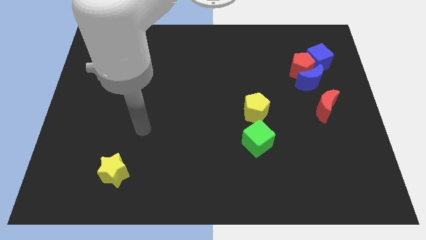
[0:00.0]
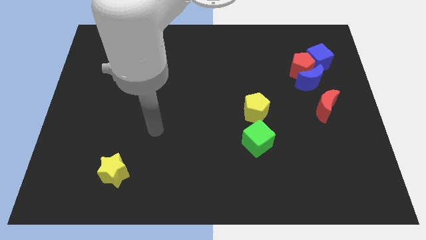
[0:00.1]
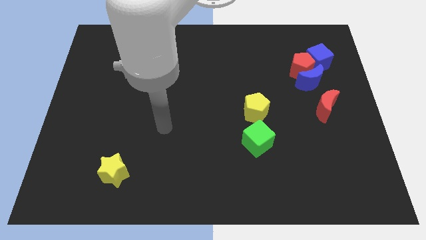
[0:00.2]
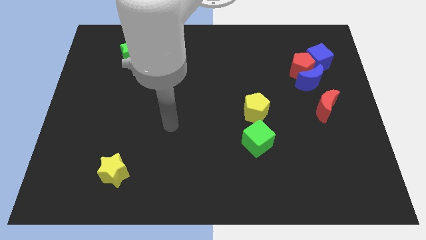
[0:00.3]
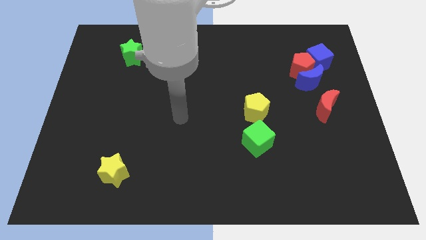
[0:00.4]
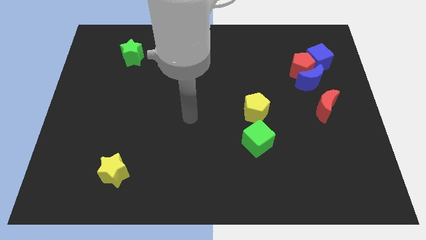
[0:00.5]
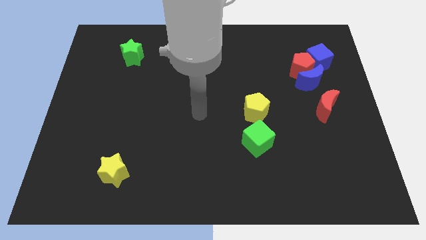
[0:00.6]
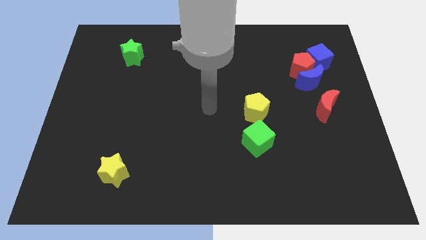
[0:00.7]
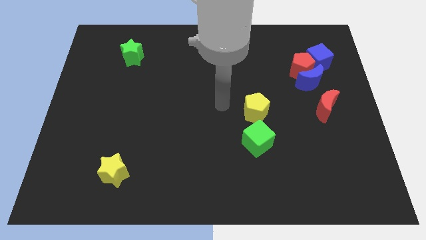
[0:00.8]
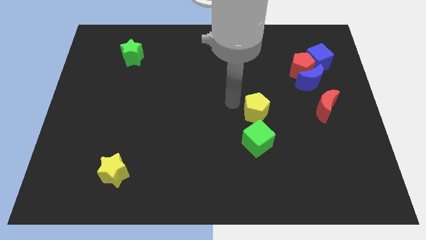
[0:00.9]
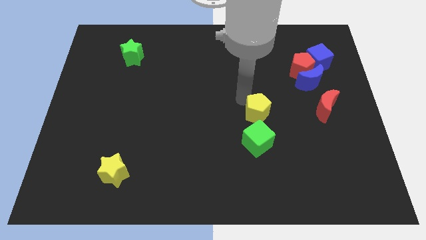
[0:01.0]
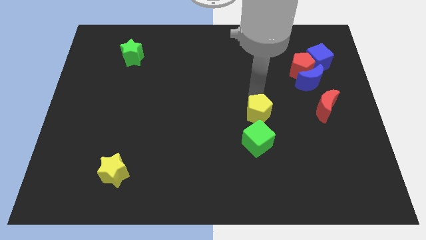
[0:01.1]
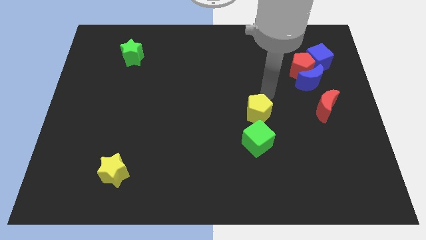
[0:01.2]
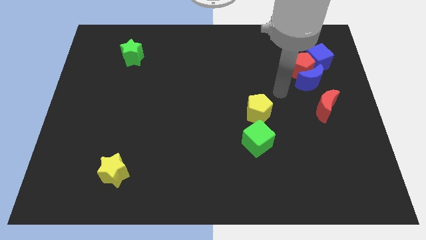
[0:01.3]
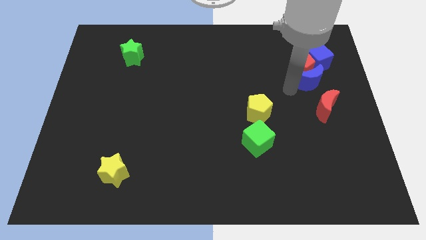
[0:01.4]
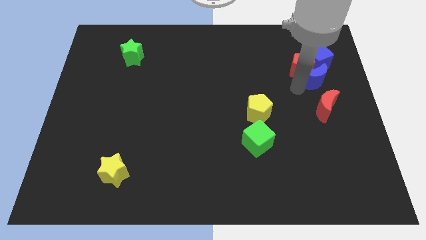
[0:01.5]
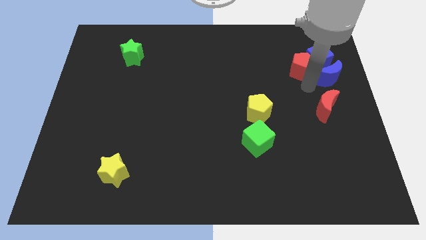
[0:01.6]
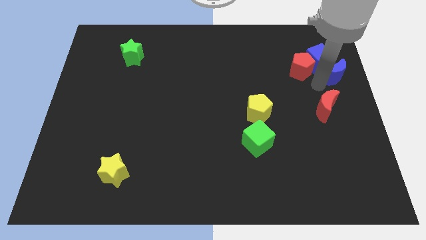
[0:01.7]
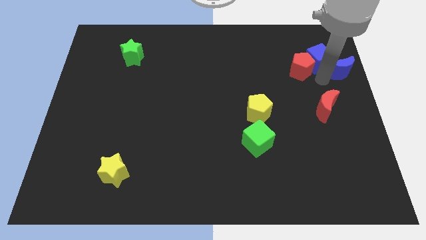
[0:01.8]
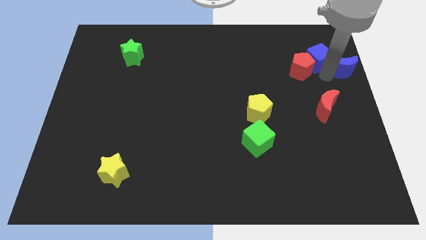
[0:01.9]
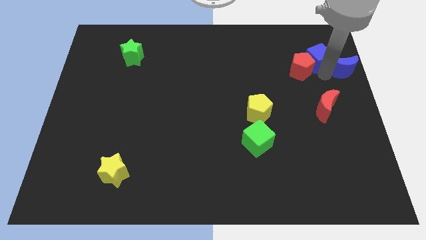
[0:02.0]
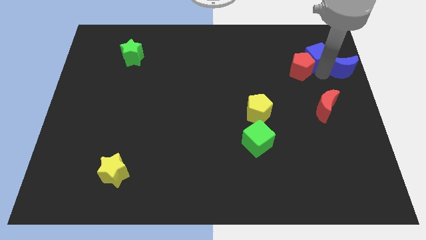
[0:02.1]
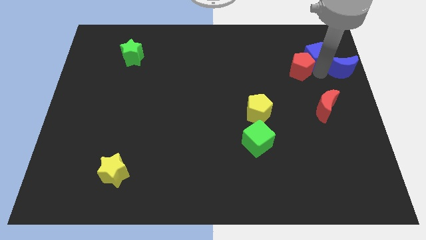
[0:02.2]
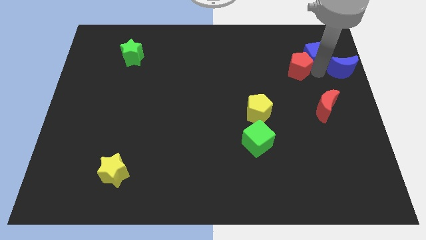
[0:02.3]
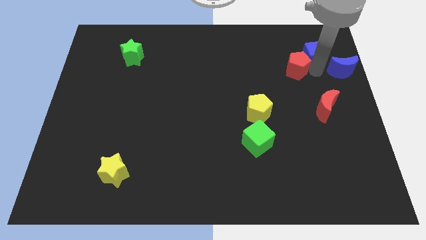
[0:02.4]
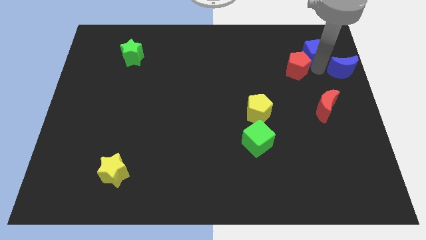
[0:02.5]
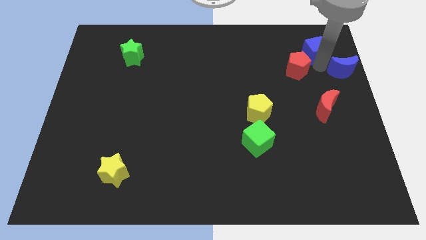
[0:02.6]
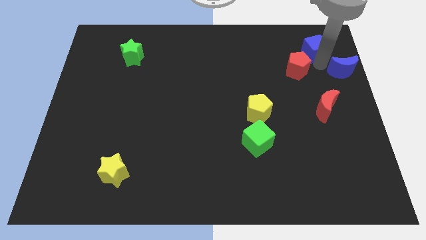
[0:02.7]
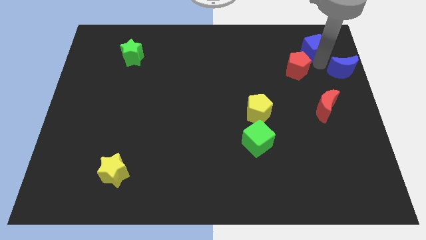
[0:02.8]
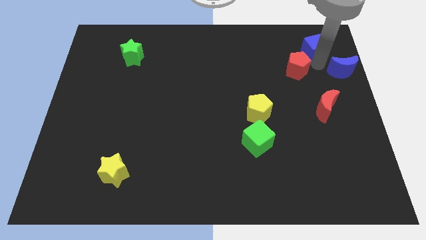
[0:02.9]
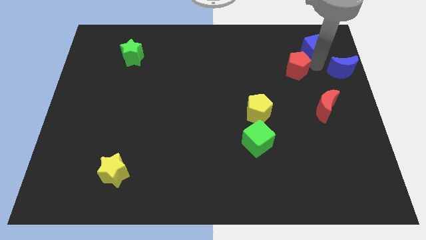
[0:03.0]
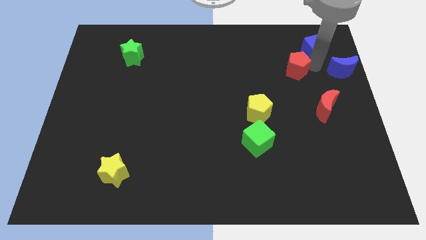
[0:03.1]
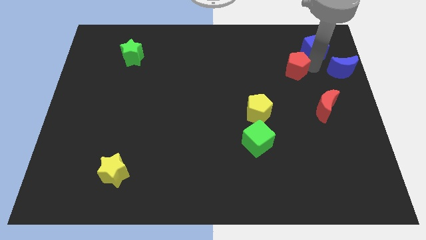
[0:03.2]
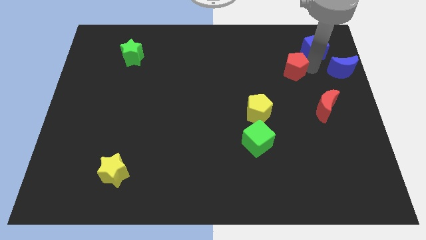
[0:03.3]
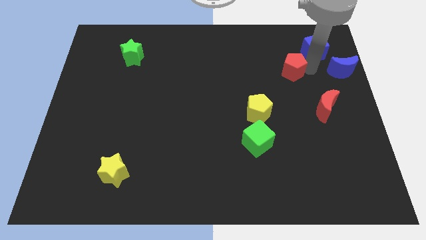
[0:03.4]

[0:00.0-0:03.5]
move the red pentagon away from the blue moon and blue cube

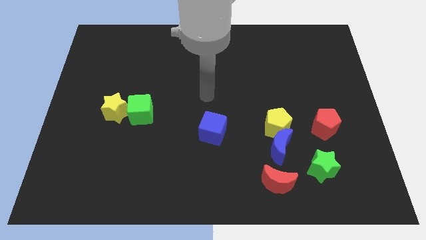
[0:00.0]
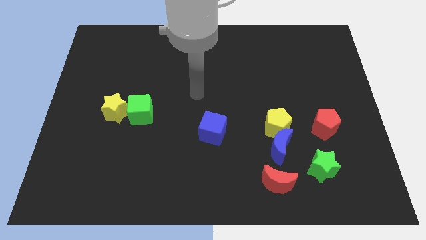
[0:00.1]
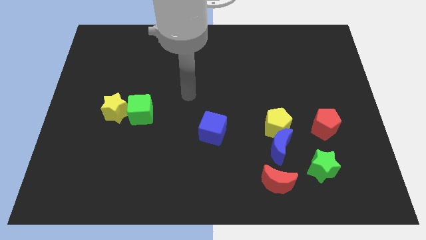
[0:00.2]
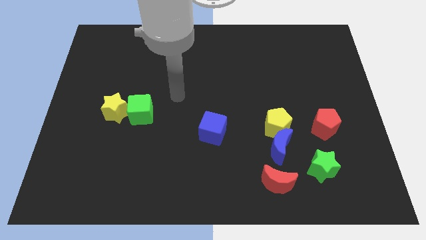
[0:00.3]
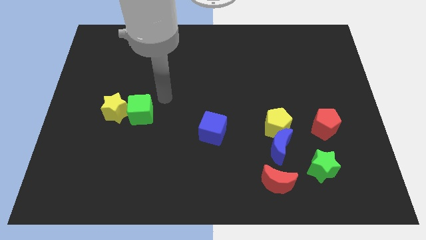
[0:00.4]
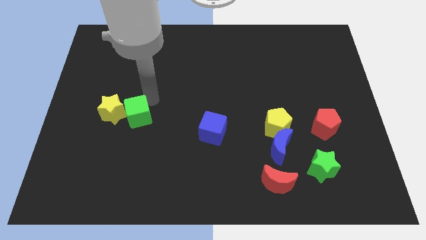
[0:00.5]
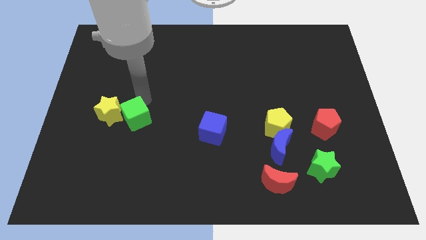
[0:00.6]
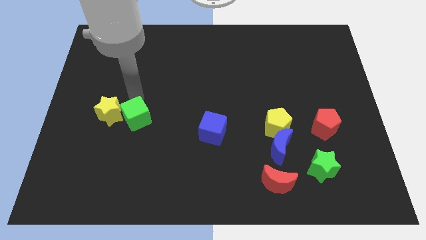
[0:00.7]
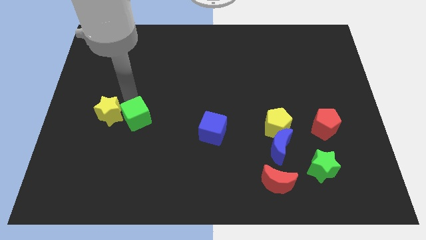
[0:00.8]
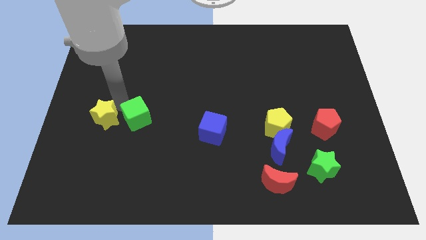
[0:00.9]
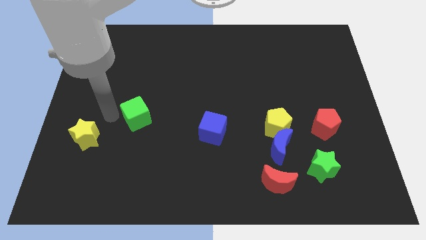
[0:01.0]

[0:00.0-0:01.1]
pull the green cube apart from the yellow star

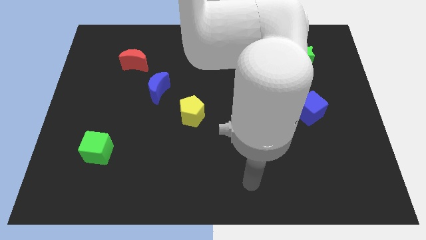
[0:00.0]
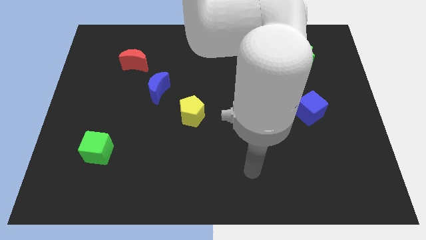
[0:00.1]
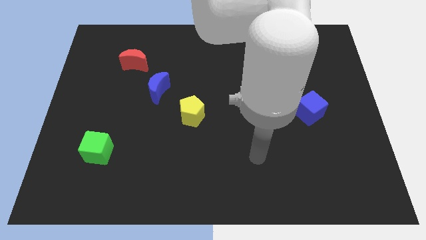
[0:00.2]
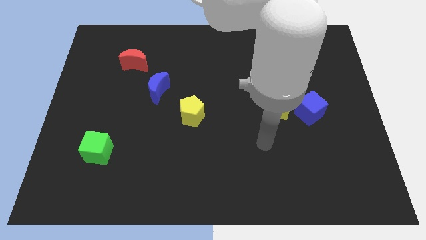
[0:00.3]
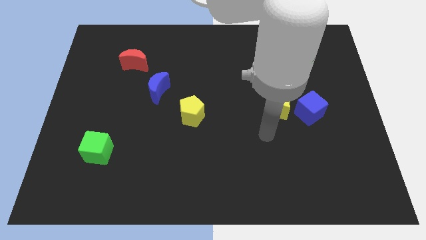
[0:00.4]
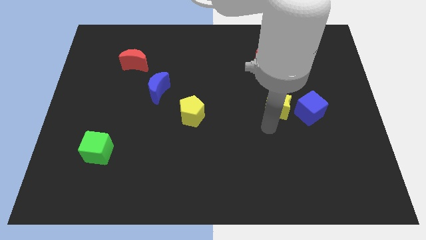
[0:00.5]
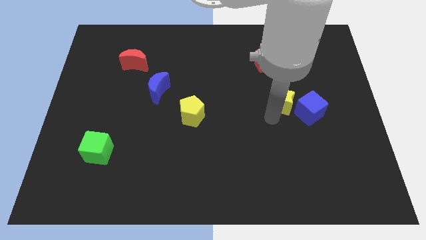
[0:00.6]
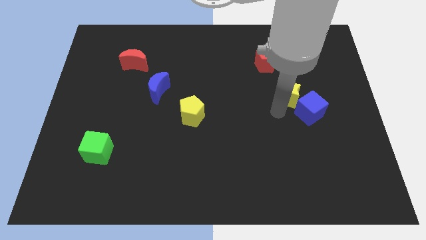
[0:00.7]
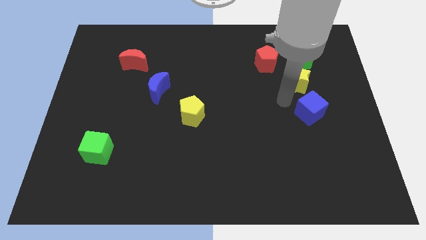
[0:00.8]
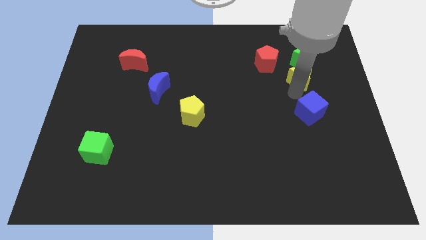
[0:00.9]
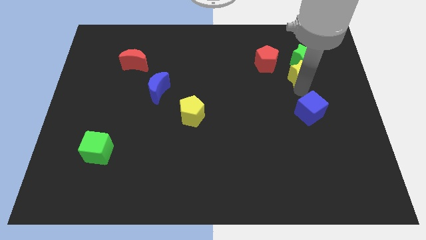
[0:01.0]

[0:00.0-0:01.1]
pull the blue cube apart from the yellow star

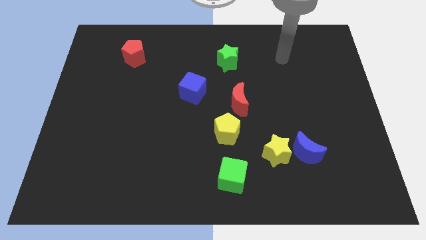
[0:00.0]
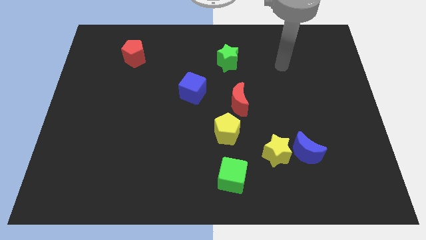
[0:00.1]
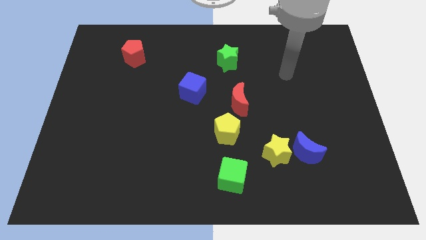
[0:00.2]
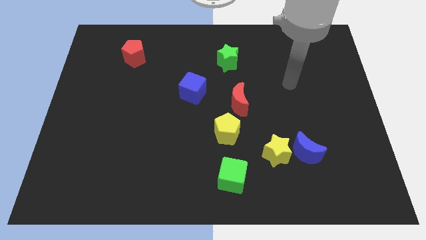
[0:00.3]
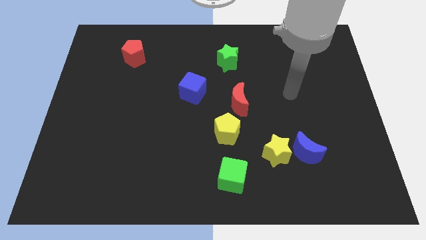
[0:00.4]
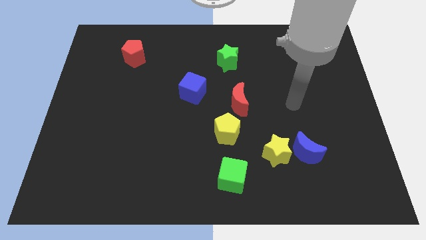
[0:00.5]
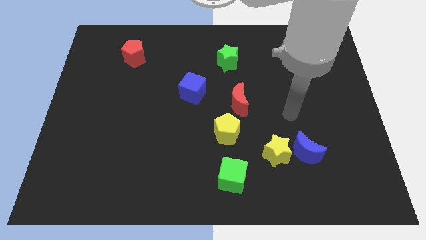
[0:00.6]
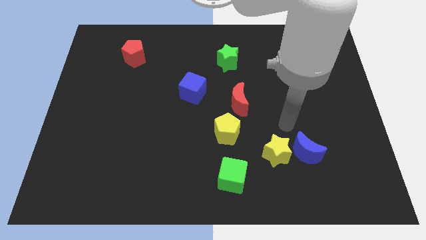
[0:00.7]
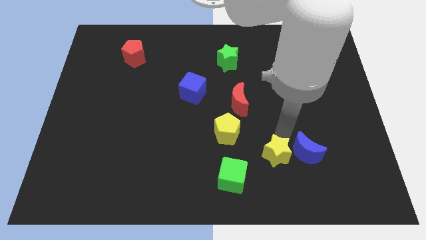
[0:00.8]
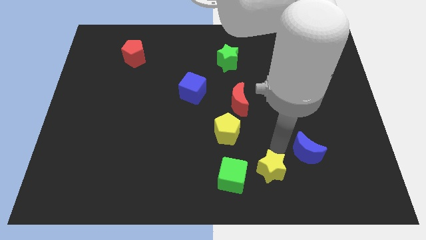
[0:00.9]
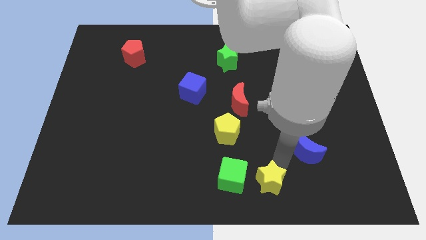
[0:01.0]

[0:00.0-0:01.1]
pull the blue moon apart from the yellow star

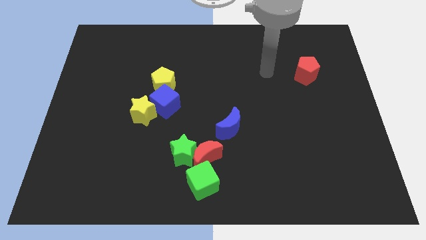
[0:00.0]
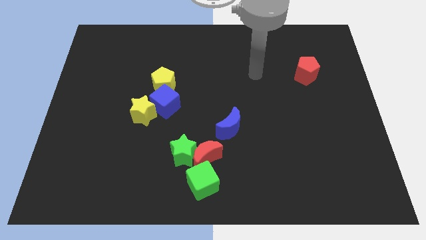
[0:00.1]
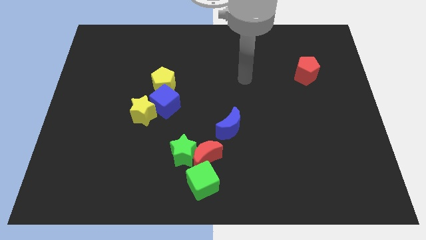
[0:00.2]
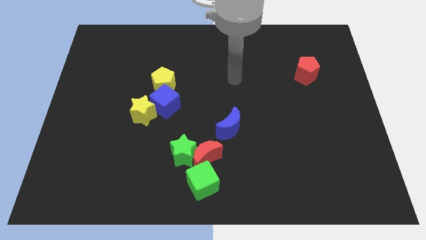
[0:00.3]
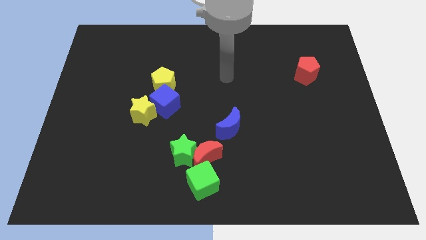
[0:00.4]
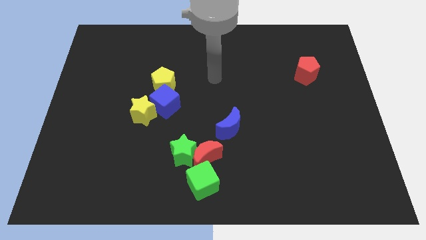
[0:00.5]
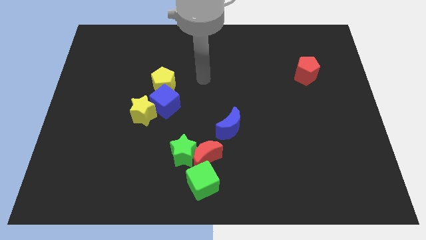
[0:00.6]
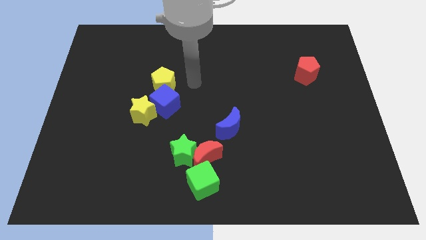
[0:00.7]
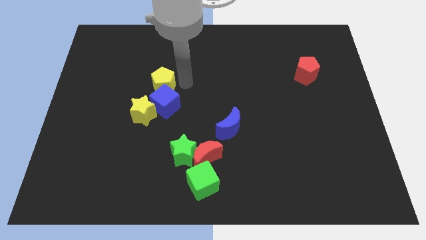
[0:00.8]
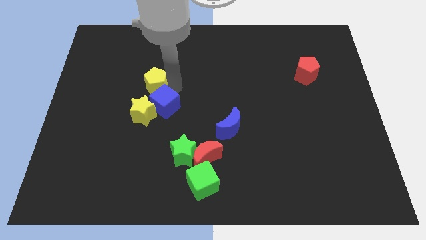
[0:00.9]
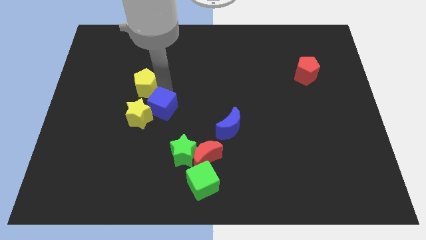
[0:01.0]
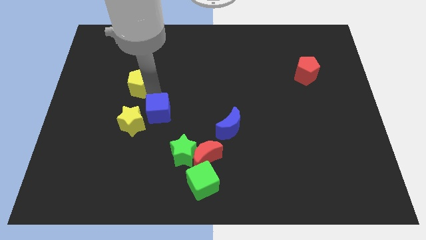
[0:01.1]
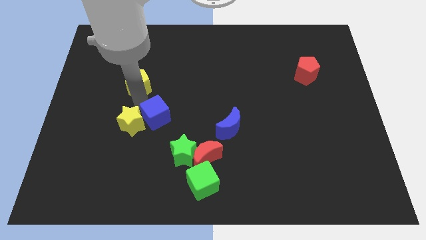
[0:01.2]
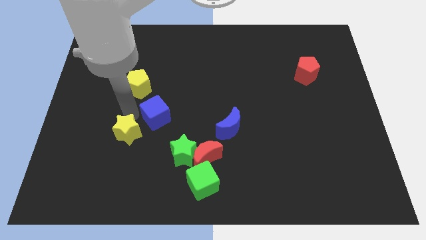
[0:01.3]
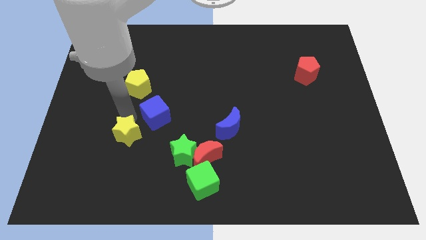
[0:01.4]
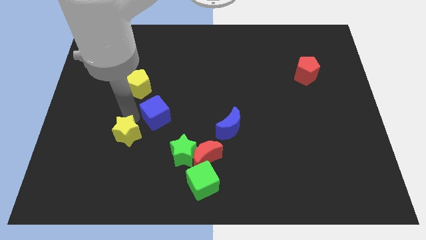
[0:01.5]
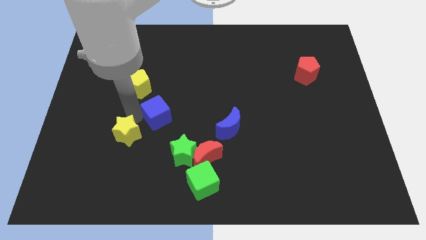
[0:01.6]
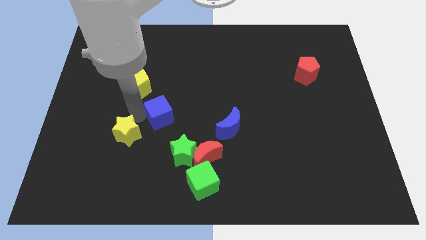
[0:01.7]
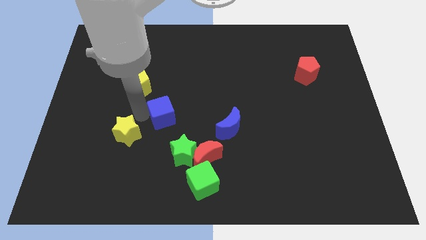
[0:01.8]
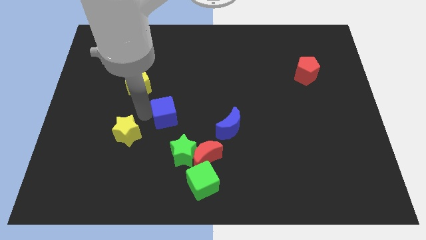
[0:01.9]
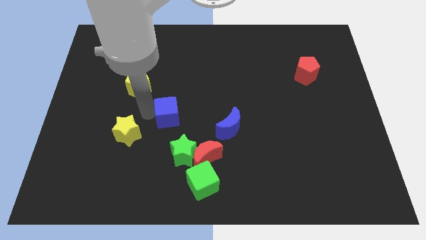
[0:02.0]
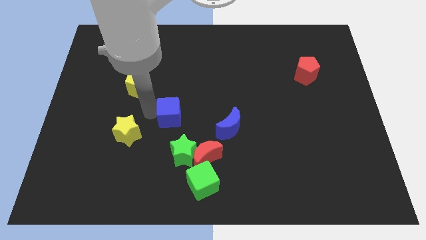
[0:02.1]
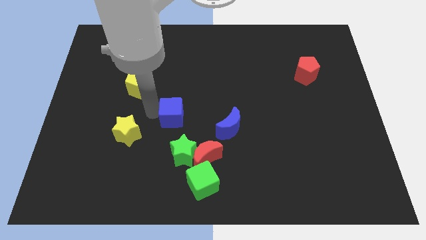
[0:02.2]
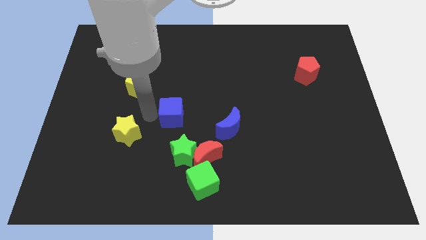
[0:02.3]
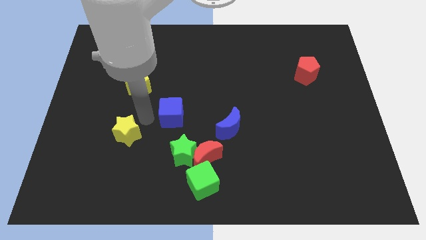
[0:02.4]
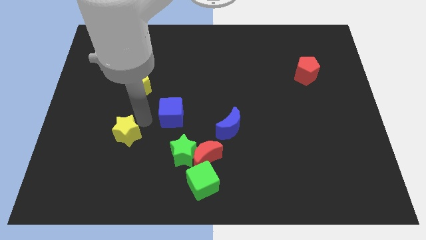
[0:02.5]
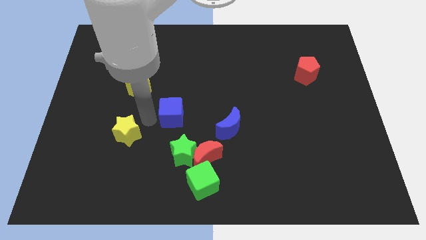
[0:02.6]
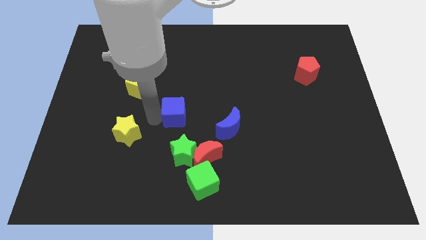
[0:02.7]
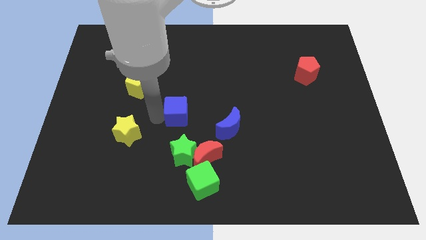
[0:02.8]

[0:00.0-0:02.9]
separate the blue cube from the yellow star and yellow pentagon
